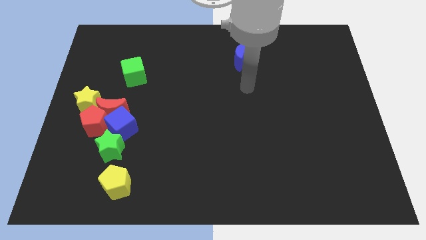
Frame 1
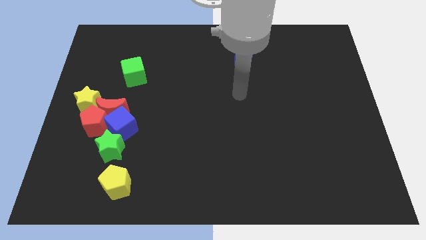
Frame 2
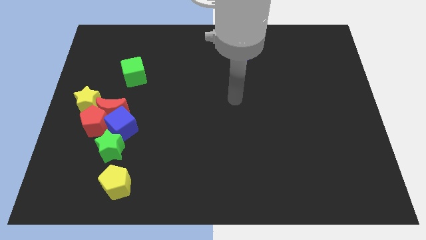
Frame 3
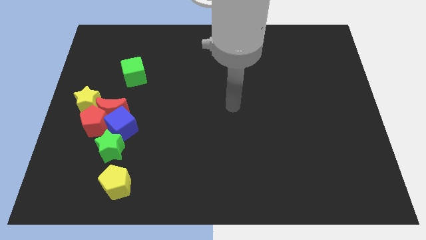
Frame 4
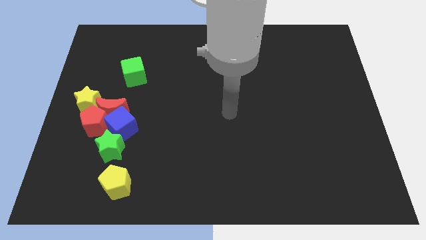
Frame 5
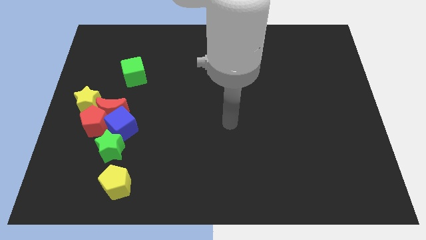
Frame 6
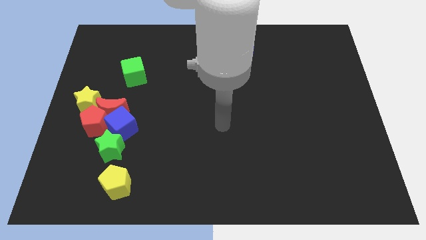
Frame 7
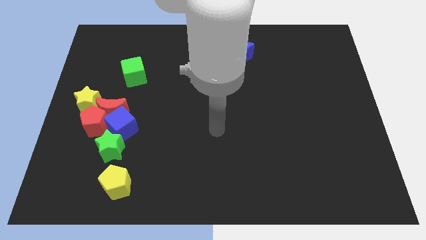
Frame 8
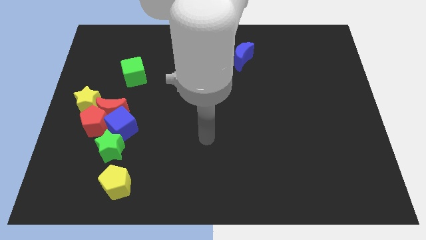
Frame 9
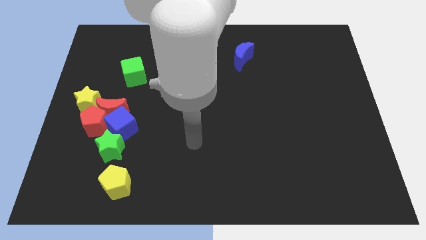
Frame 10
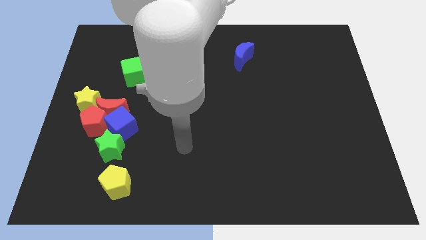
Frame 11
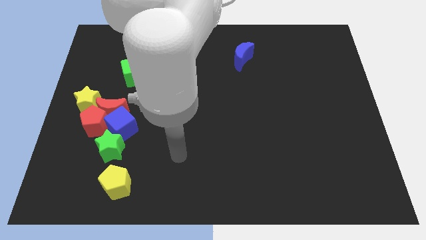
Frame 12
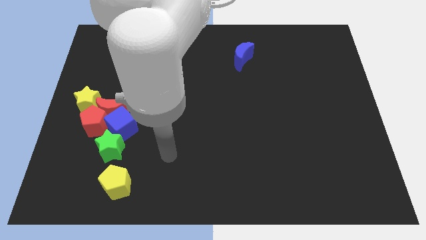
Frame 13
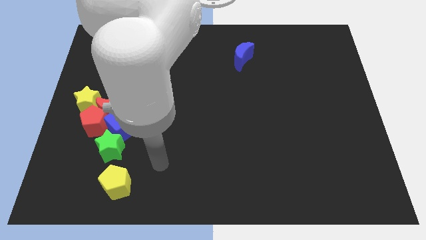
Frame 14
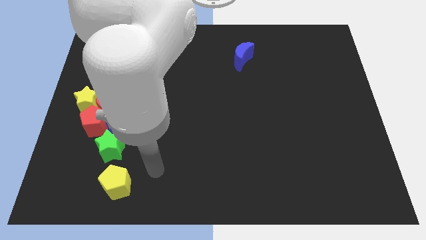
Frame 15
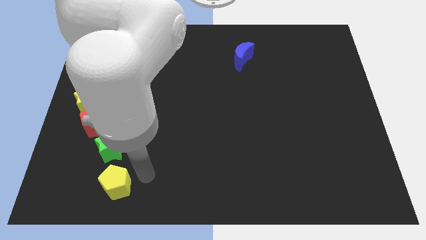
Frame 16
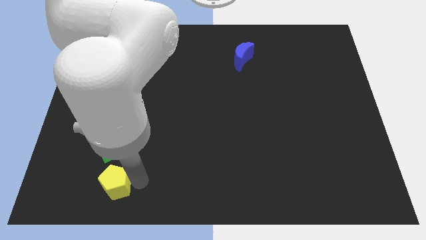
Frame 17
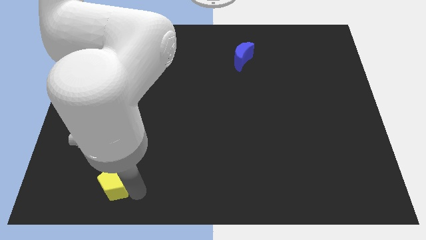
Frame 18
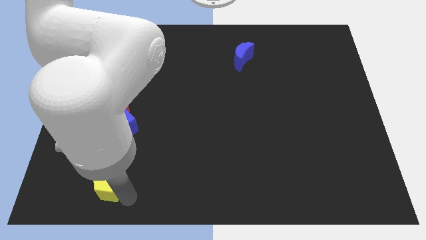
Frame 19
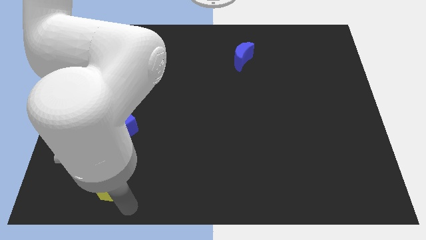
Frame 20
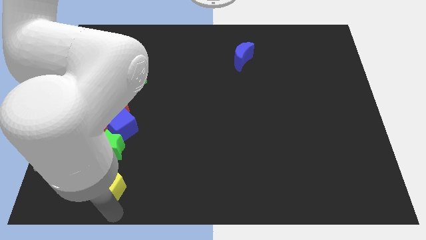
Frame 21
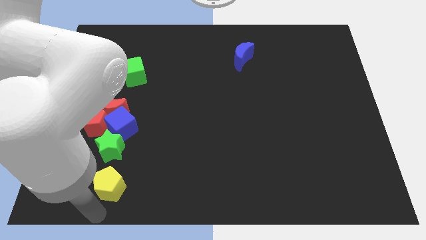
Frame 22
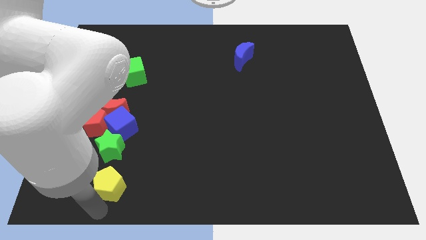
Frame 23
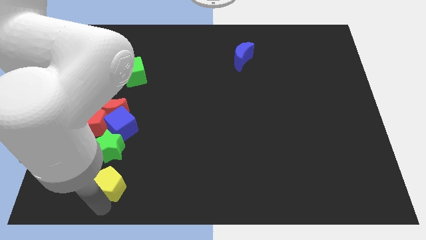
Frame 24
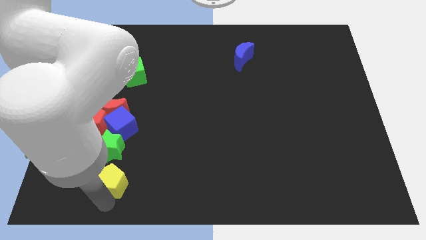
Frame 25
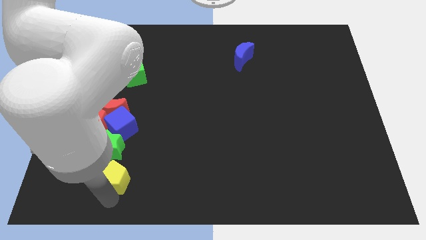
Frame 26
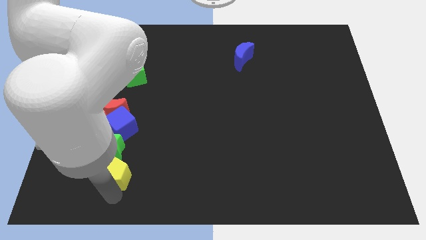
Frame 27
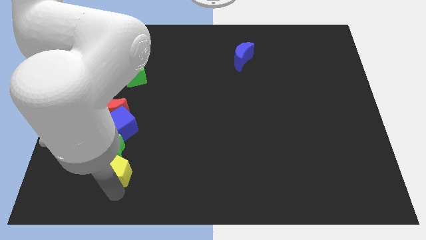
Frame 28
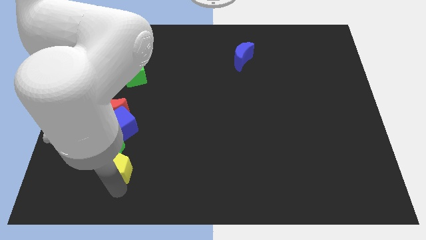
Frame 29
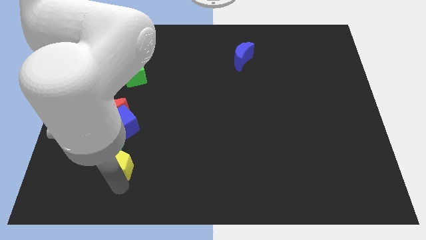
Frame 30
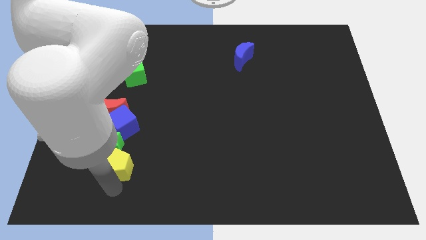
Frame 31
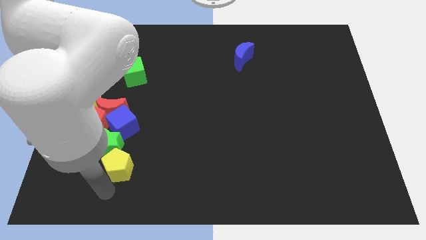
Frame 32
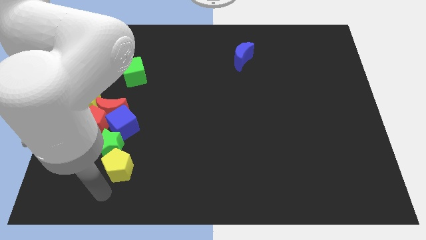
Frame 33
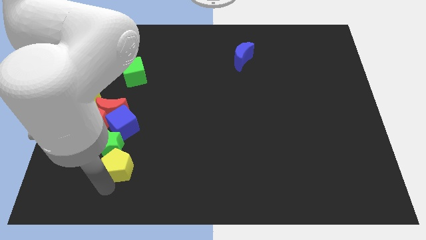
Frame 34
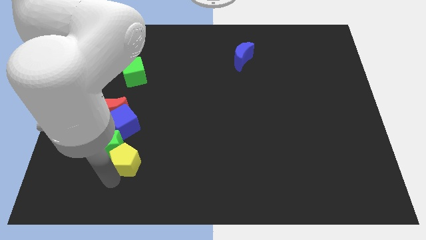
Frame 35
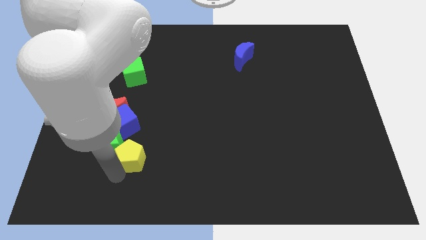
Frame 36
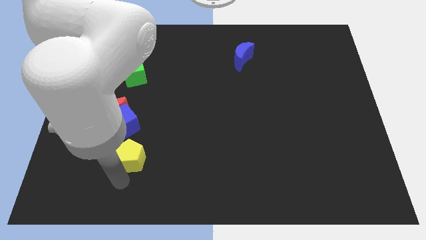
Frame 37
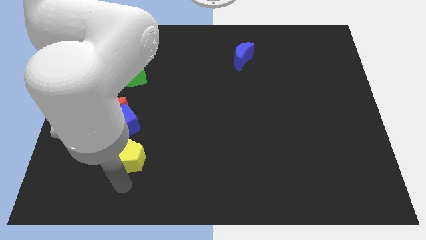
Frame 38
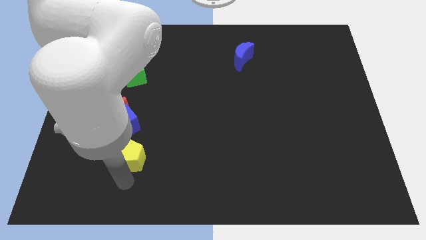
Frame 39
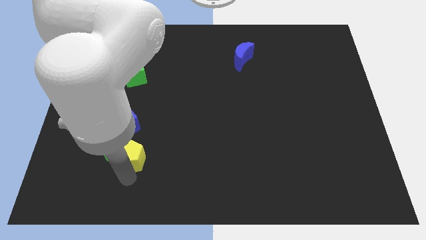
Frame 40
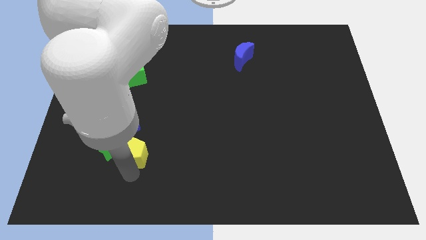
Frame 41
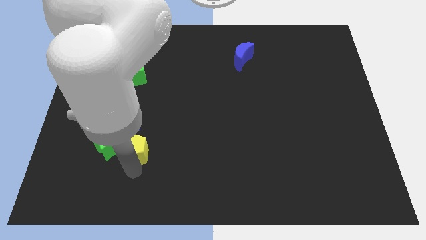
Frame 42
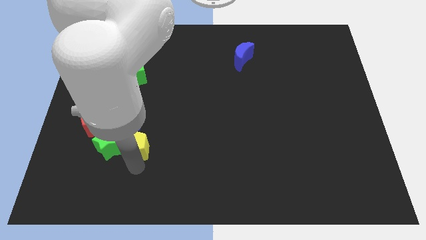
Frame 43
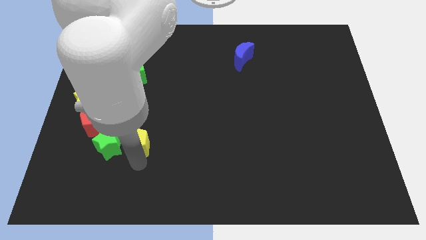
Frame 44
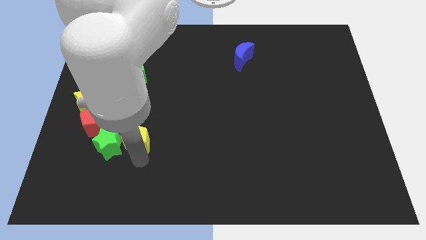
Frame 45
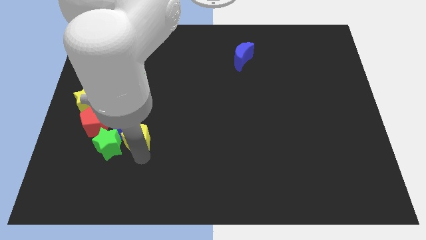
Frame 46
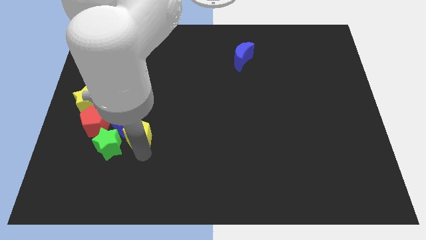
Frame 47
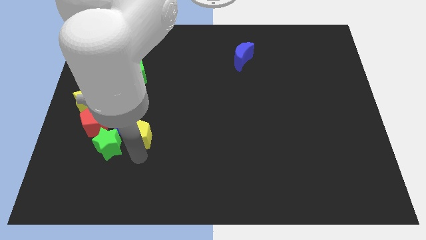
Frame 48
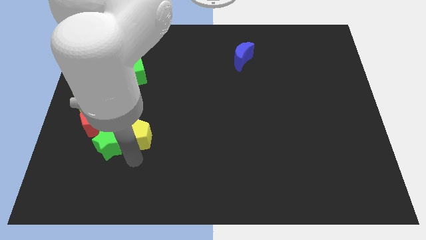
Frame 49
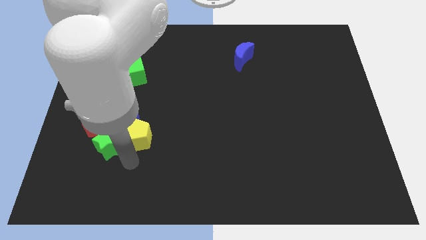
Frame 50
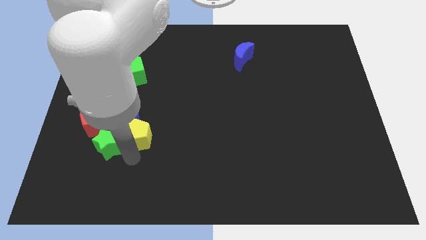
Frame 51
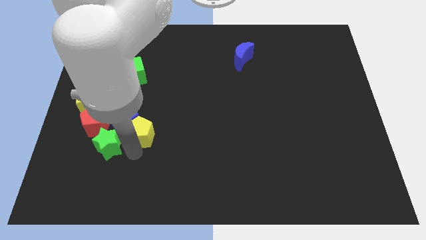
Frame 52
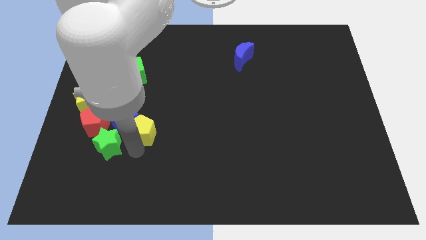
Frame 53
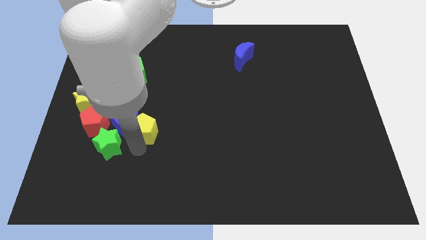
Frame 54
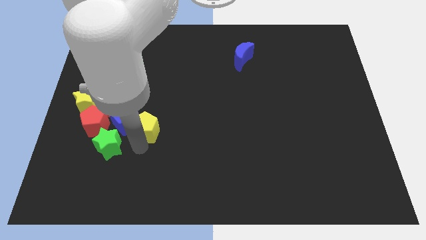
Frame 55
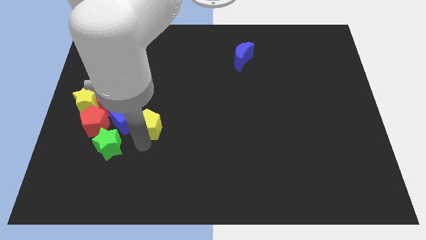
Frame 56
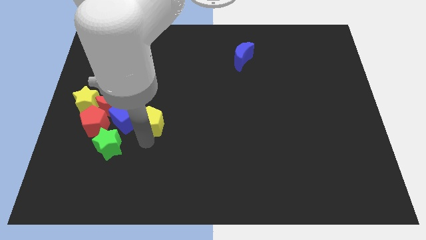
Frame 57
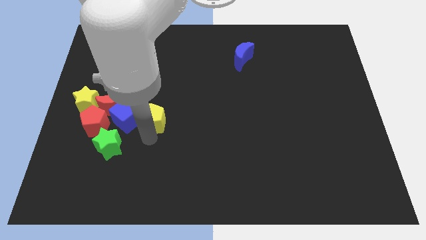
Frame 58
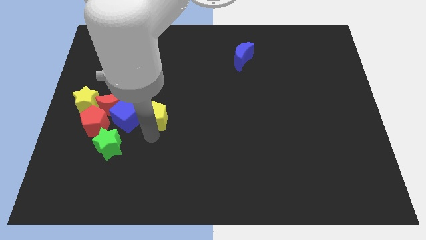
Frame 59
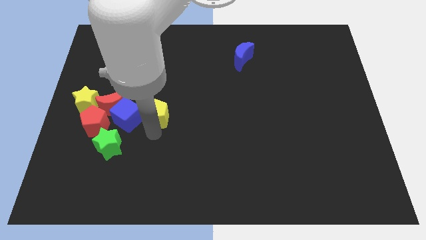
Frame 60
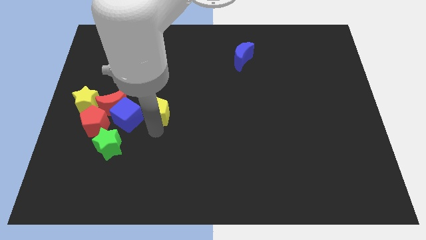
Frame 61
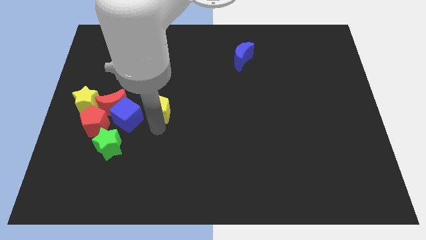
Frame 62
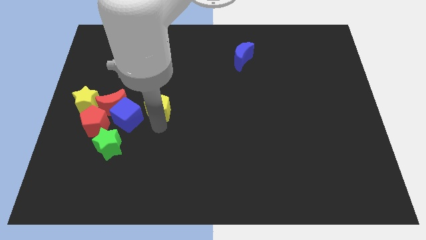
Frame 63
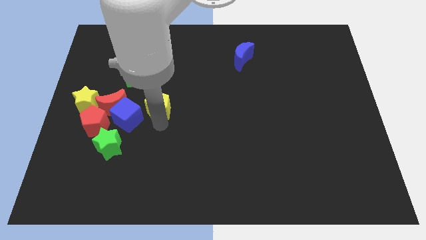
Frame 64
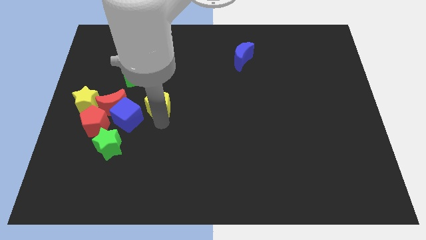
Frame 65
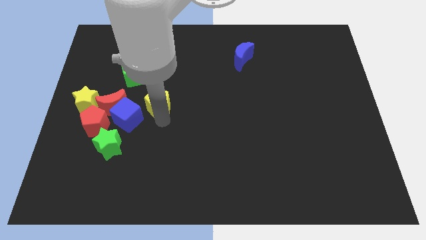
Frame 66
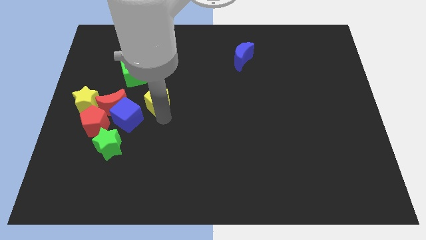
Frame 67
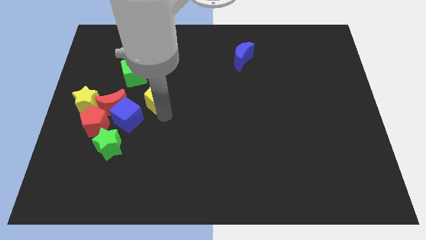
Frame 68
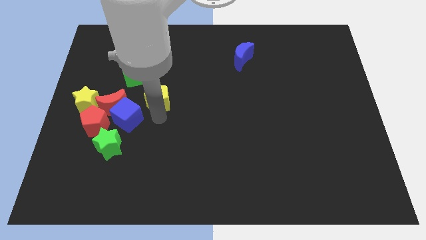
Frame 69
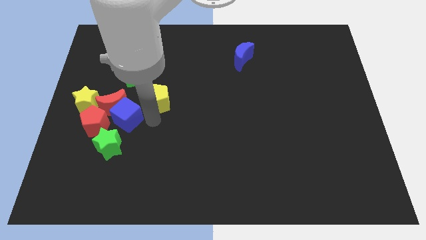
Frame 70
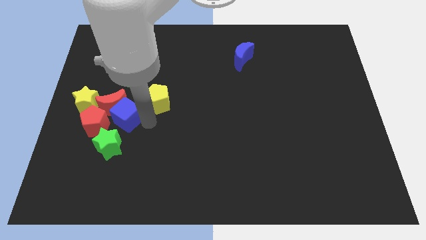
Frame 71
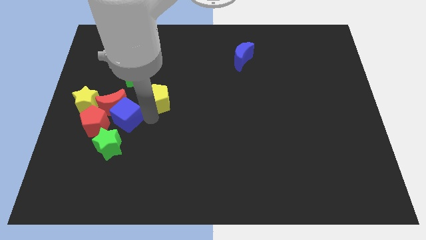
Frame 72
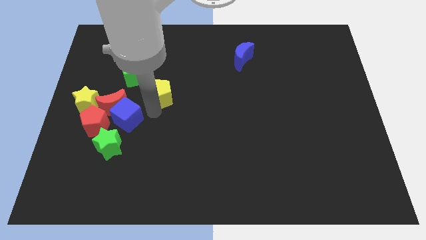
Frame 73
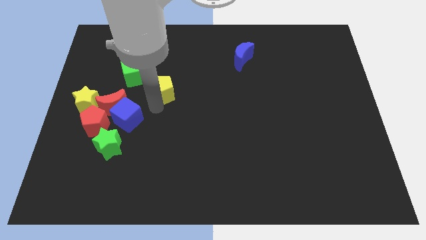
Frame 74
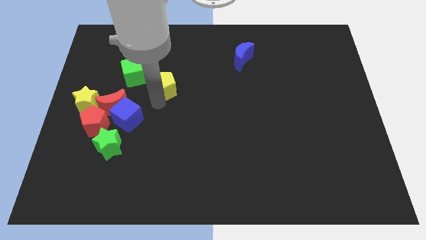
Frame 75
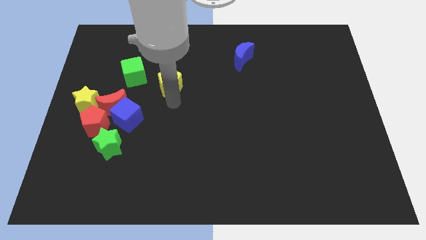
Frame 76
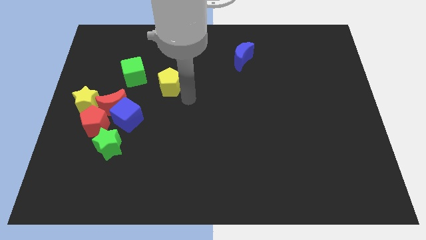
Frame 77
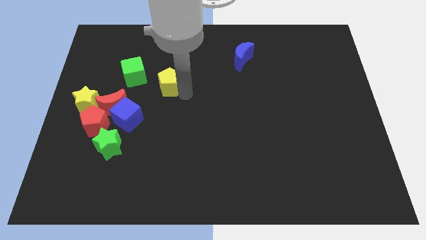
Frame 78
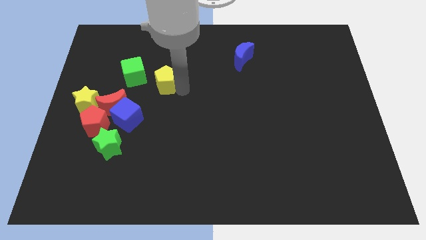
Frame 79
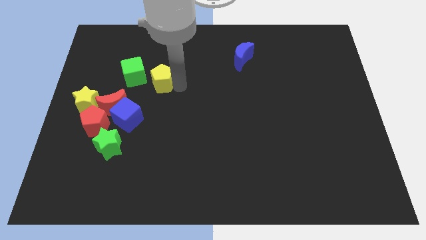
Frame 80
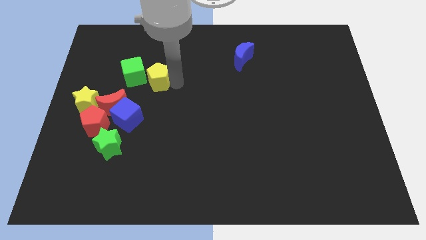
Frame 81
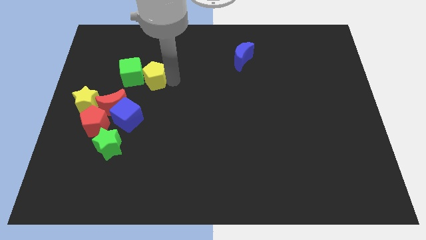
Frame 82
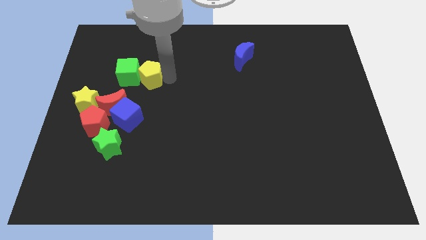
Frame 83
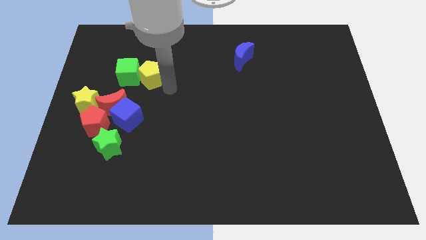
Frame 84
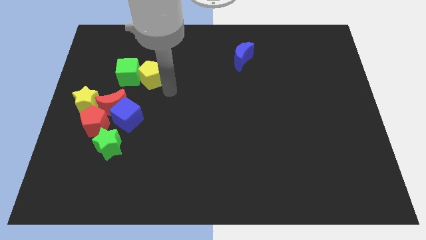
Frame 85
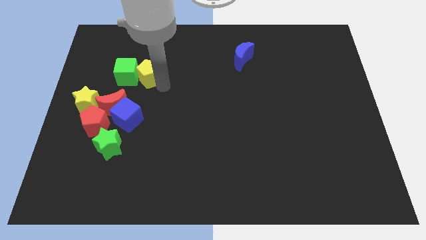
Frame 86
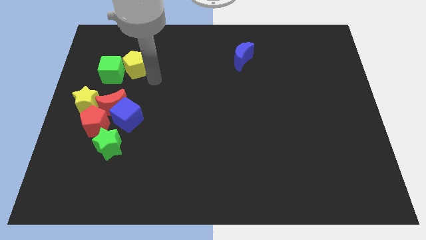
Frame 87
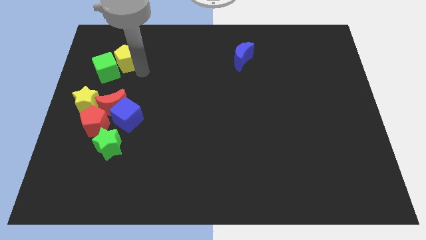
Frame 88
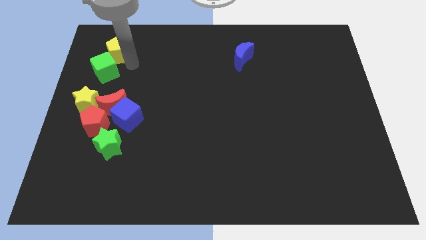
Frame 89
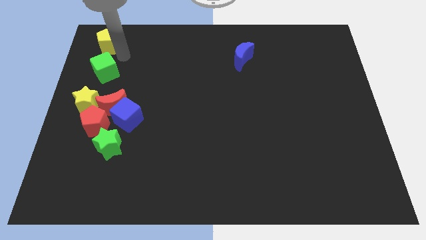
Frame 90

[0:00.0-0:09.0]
put the yellow pentagon to the top left corner
